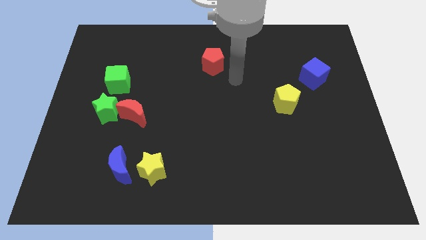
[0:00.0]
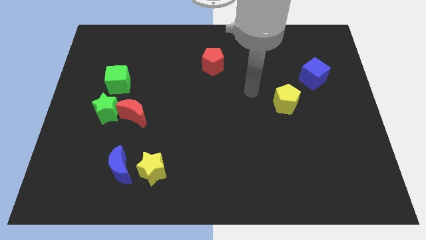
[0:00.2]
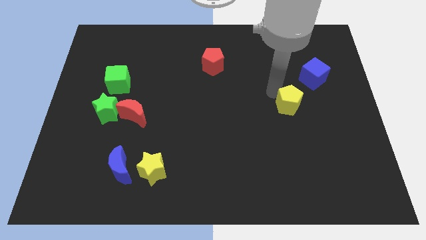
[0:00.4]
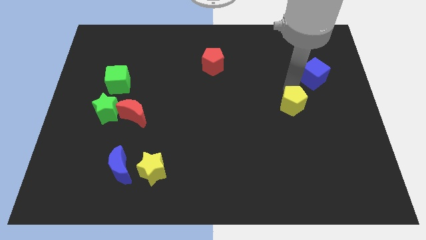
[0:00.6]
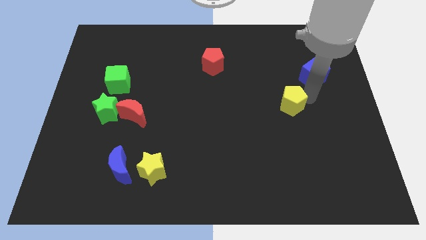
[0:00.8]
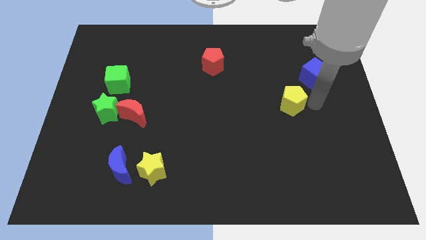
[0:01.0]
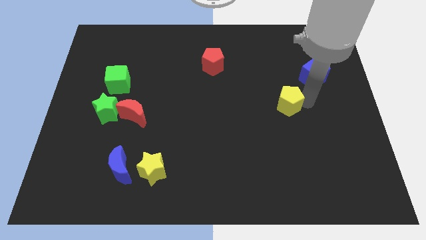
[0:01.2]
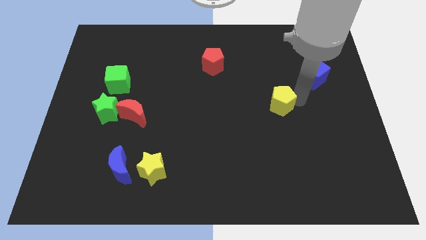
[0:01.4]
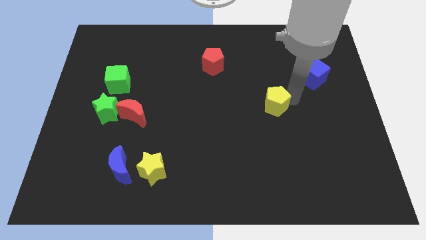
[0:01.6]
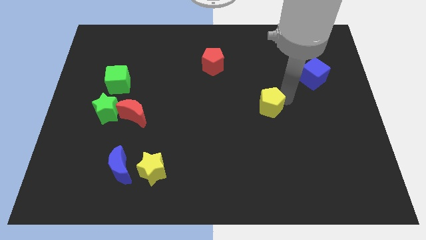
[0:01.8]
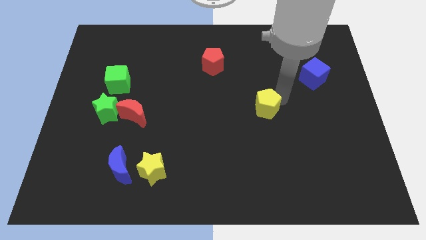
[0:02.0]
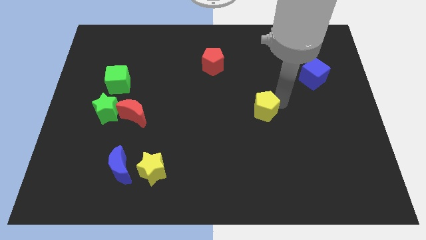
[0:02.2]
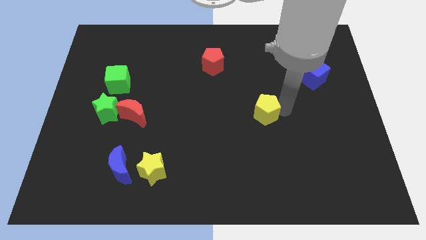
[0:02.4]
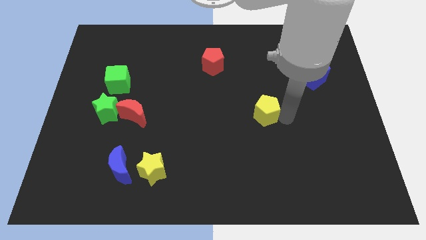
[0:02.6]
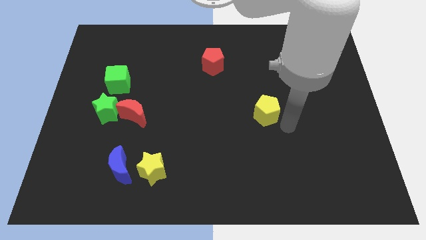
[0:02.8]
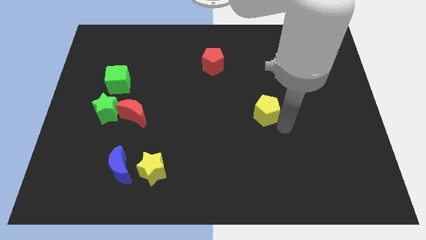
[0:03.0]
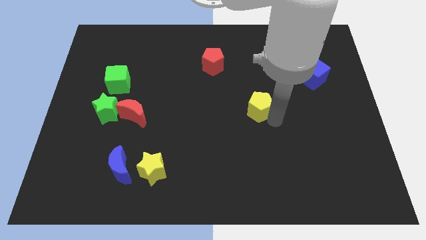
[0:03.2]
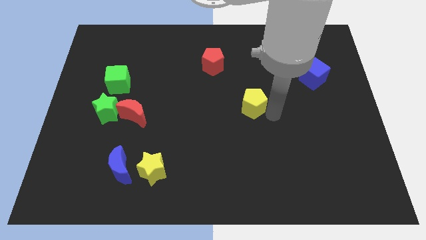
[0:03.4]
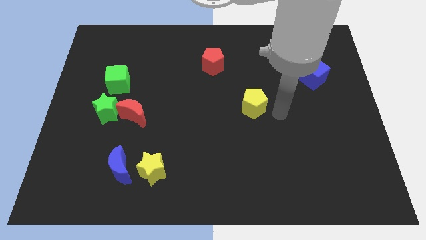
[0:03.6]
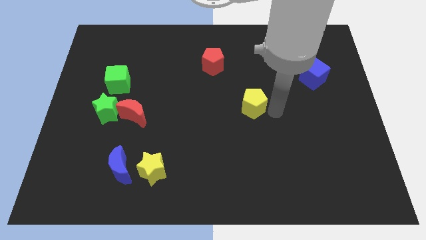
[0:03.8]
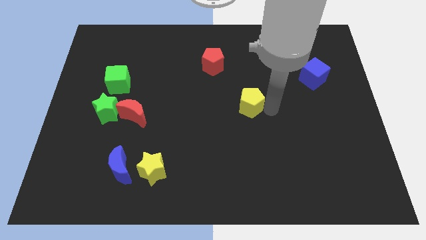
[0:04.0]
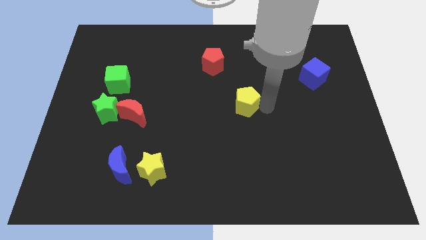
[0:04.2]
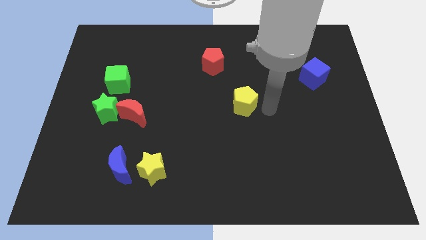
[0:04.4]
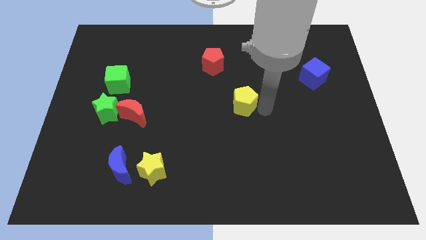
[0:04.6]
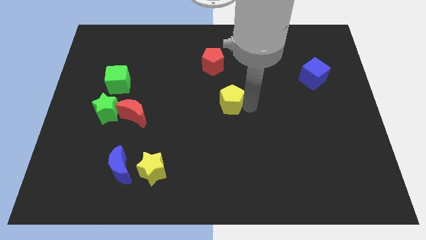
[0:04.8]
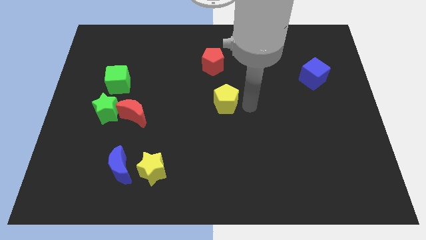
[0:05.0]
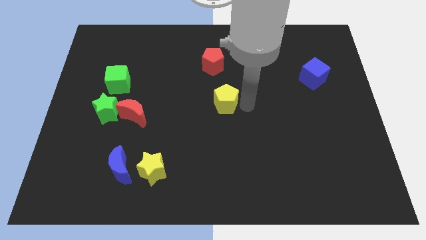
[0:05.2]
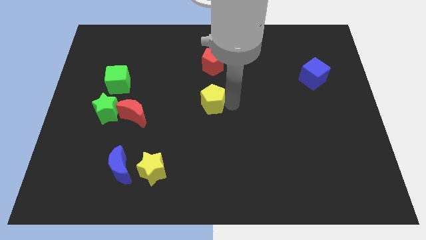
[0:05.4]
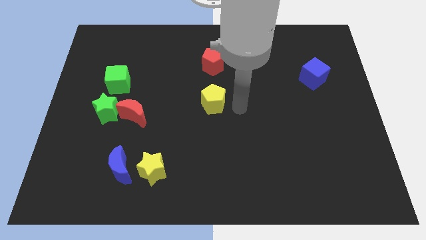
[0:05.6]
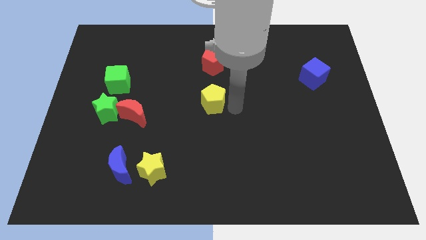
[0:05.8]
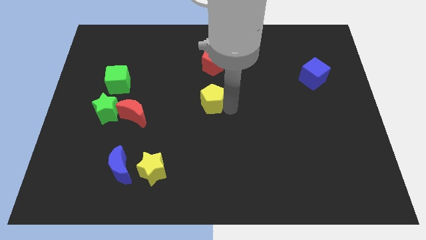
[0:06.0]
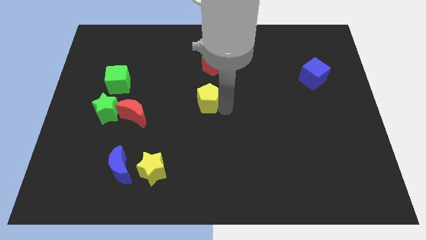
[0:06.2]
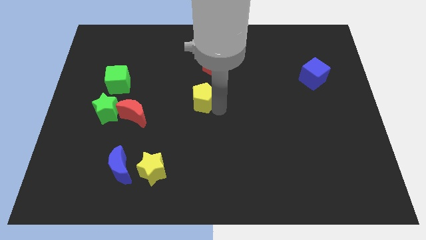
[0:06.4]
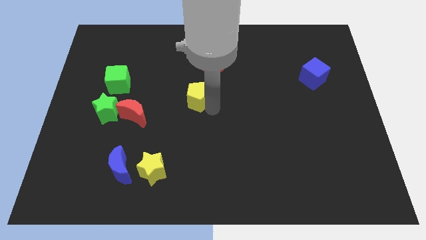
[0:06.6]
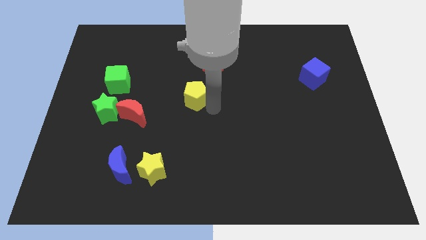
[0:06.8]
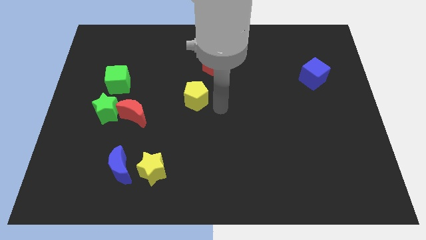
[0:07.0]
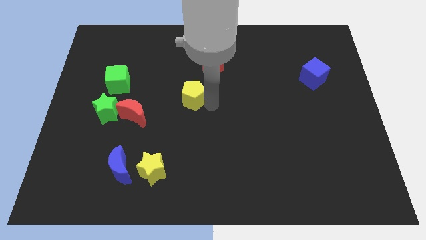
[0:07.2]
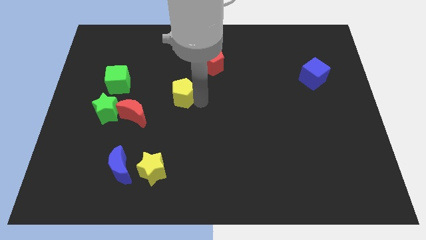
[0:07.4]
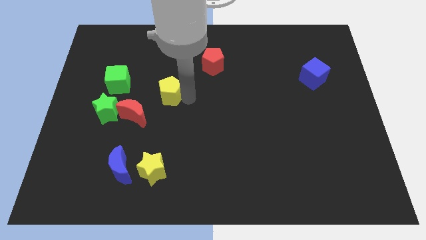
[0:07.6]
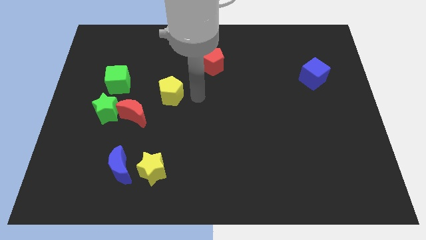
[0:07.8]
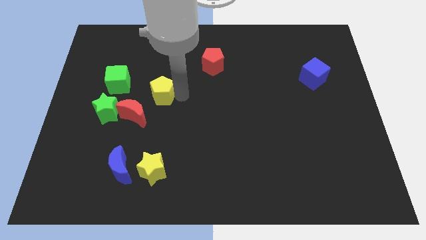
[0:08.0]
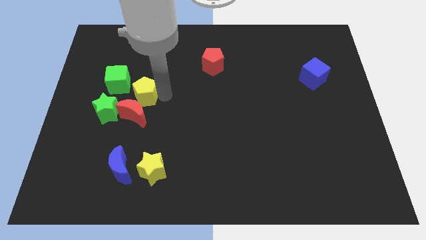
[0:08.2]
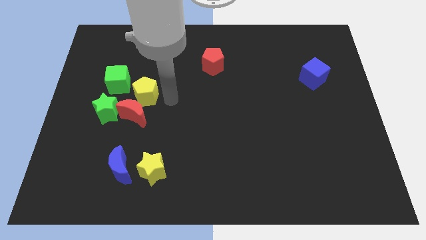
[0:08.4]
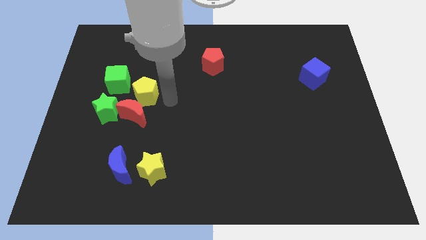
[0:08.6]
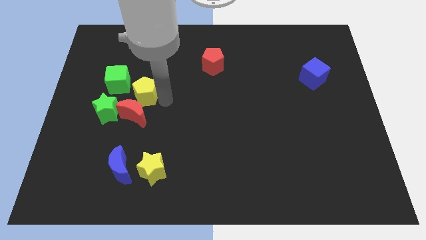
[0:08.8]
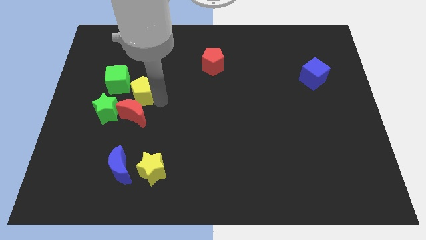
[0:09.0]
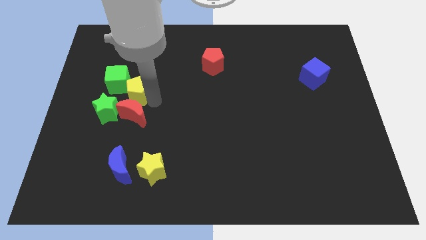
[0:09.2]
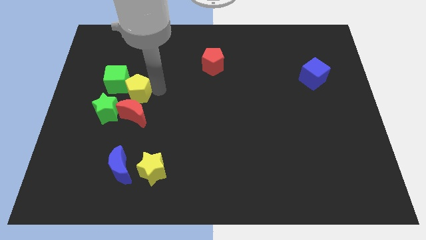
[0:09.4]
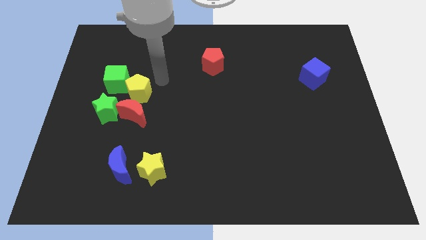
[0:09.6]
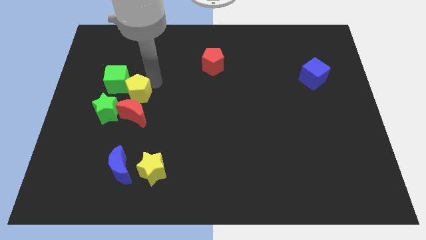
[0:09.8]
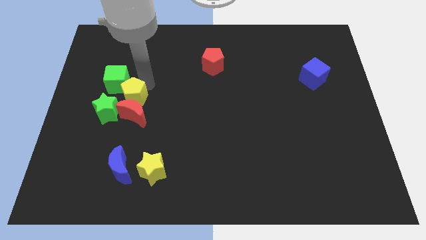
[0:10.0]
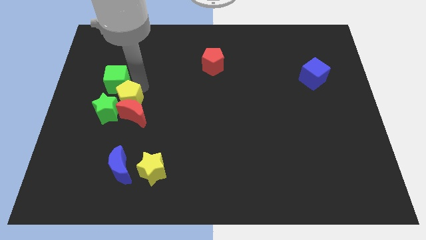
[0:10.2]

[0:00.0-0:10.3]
put the yellow pentagon next to the green star

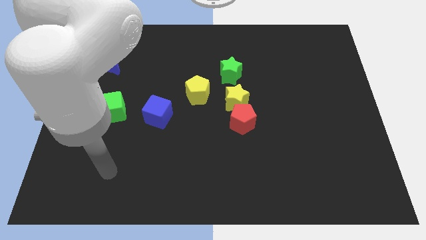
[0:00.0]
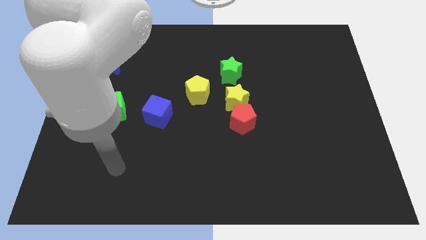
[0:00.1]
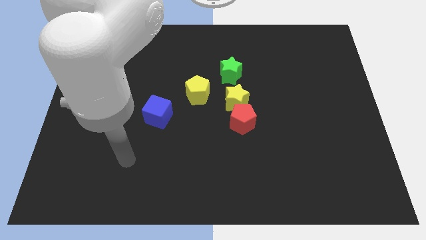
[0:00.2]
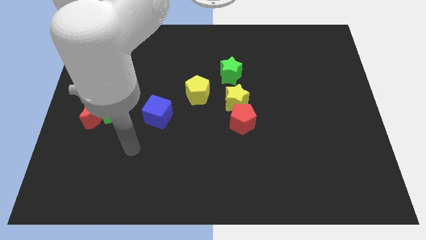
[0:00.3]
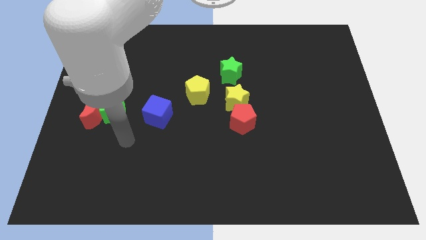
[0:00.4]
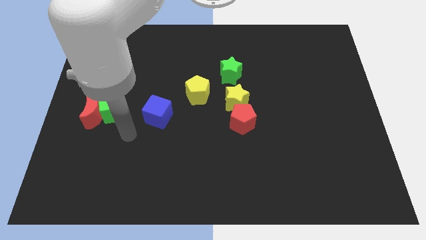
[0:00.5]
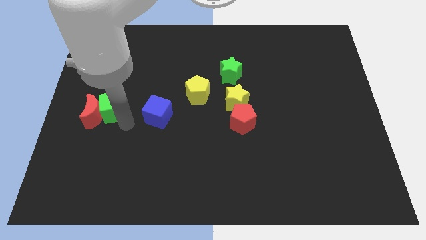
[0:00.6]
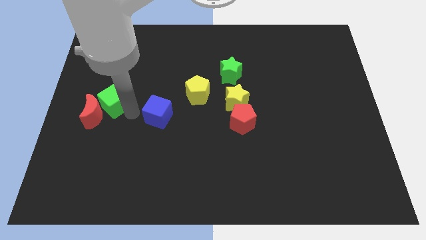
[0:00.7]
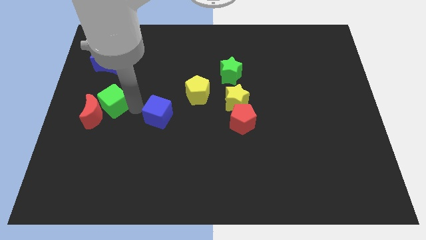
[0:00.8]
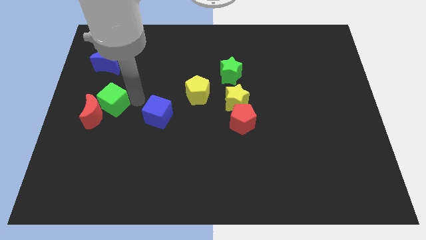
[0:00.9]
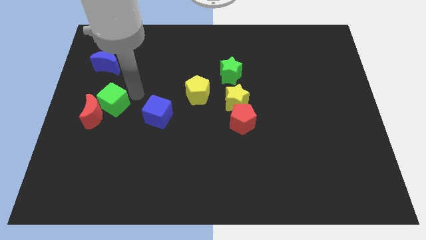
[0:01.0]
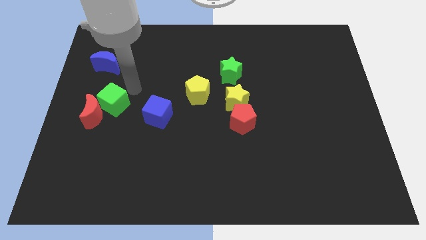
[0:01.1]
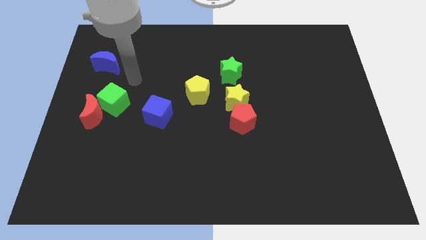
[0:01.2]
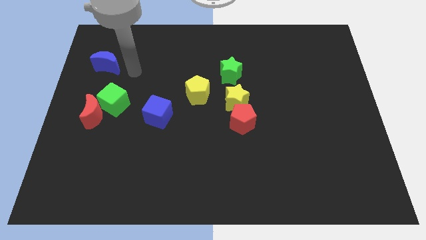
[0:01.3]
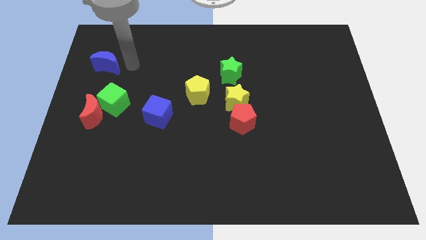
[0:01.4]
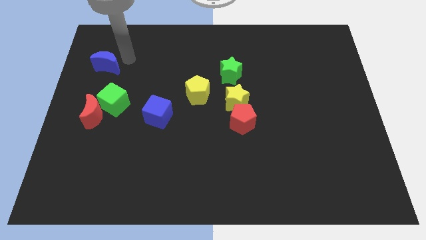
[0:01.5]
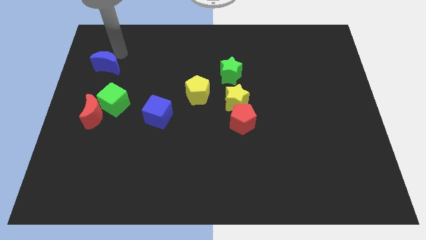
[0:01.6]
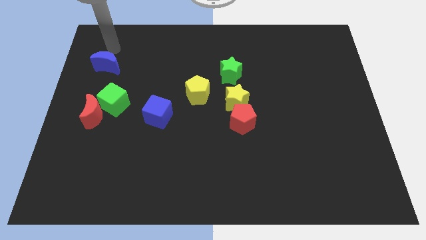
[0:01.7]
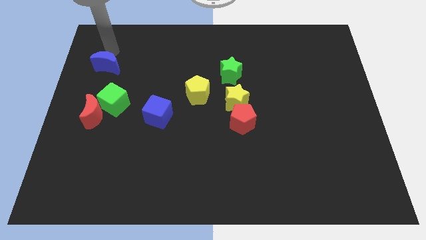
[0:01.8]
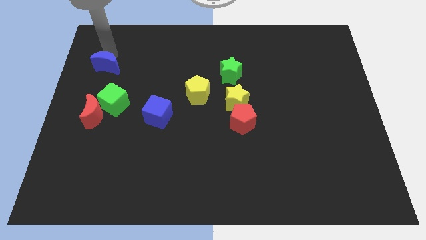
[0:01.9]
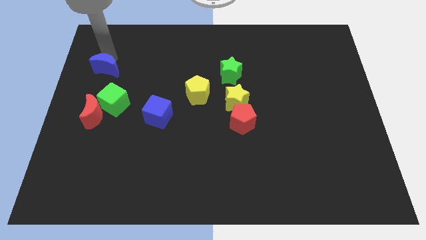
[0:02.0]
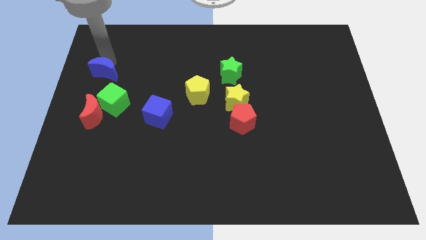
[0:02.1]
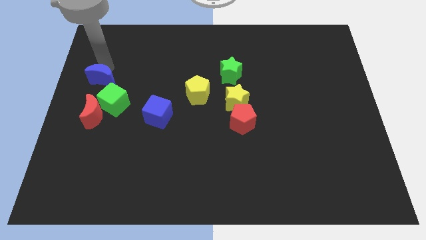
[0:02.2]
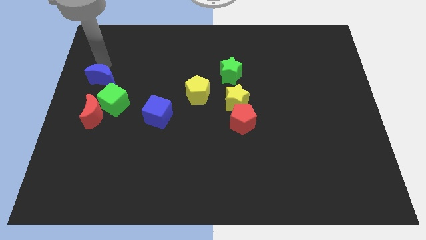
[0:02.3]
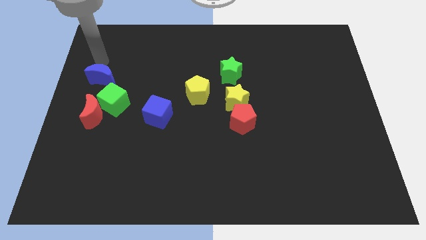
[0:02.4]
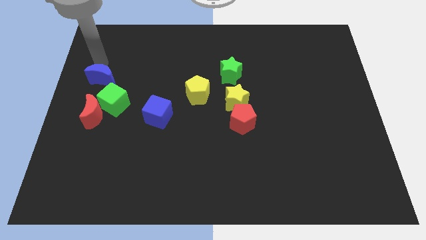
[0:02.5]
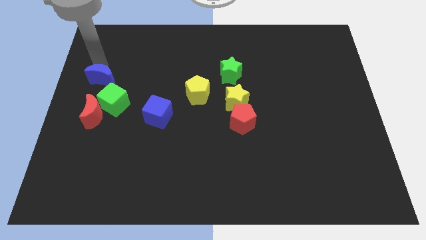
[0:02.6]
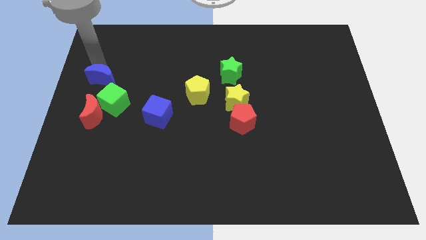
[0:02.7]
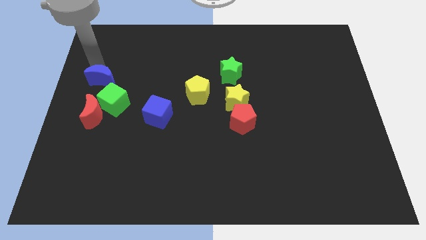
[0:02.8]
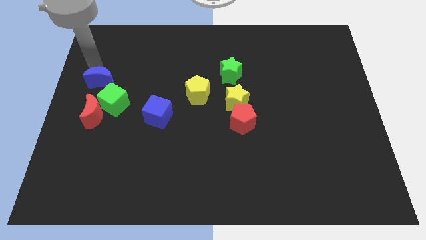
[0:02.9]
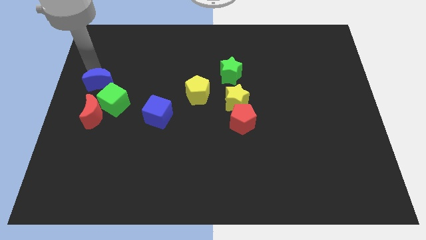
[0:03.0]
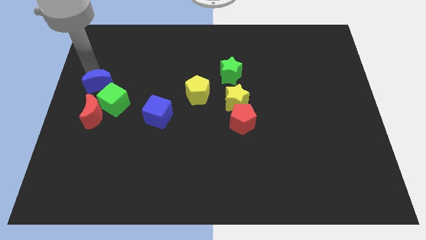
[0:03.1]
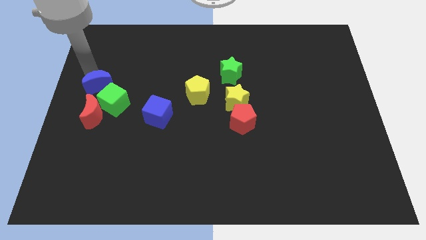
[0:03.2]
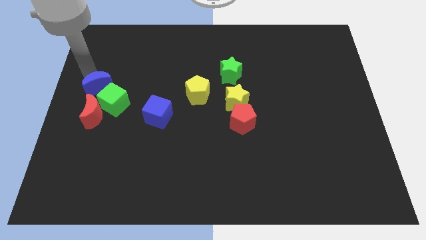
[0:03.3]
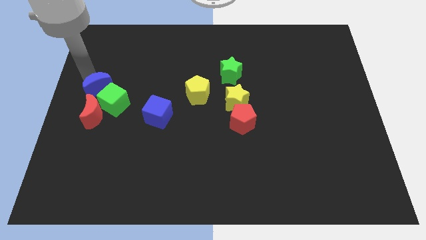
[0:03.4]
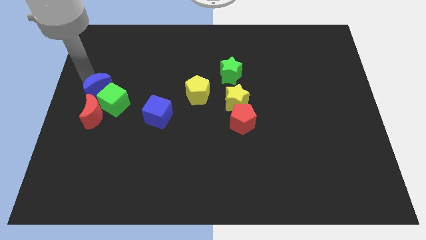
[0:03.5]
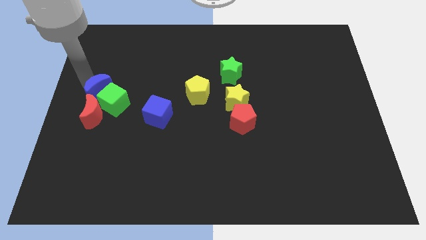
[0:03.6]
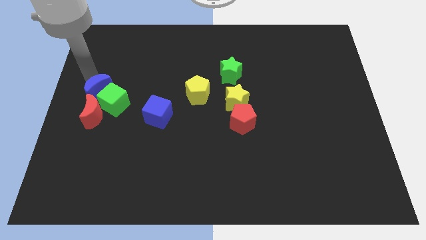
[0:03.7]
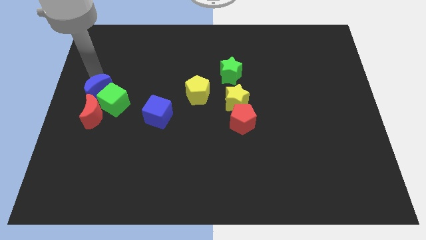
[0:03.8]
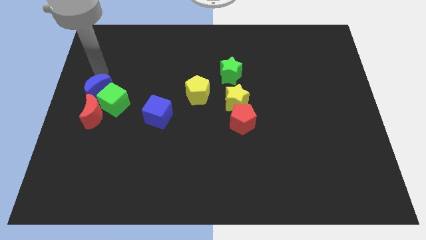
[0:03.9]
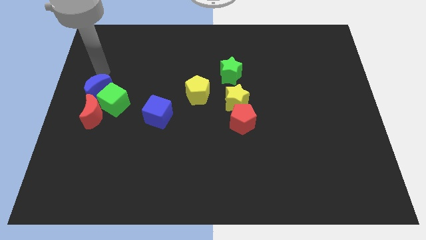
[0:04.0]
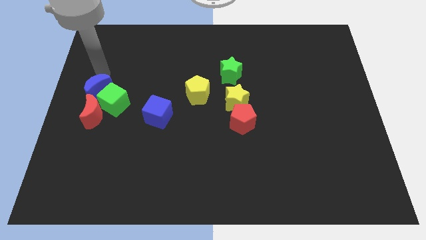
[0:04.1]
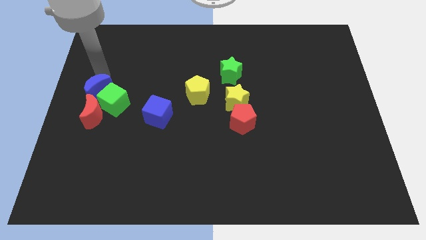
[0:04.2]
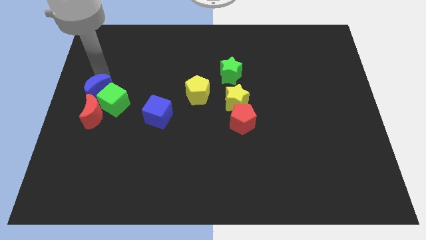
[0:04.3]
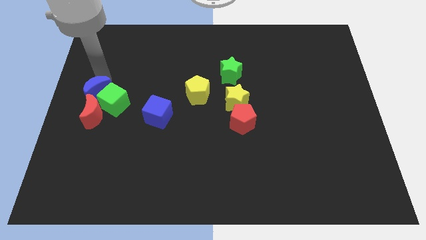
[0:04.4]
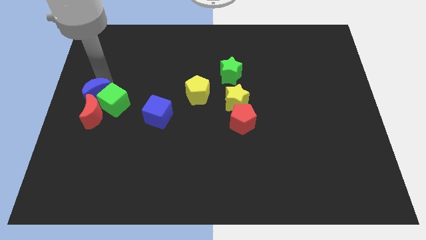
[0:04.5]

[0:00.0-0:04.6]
move the blue moon to the red moon
